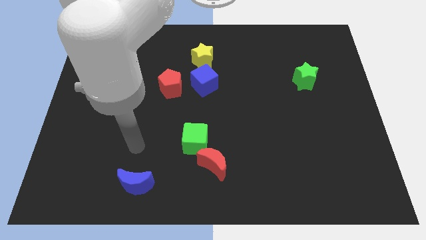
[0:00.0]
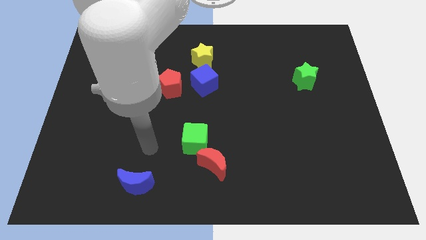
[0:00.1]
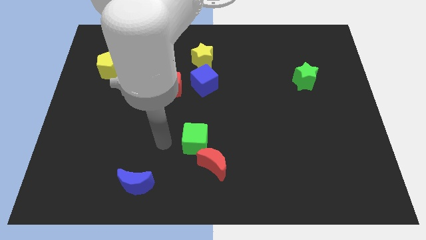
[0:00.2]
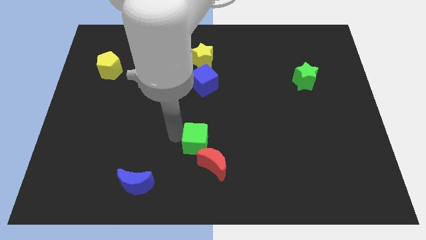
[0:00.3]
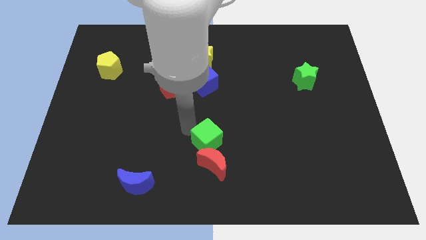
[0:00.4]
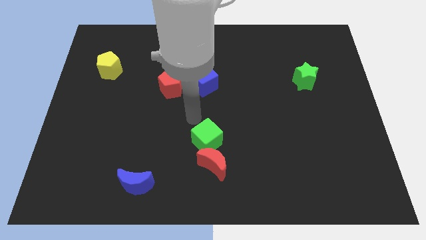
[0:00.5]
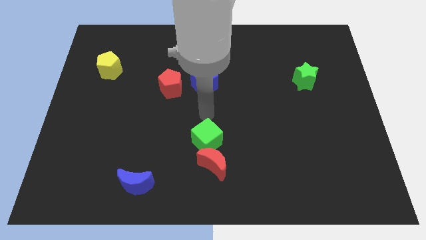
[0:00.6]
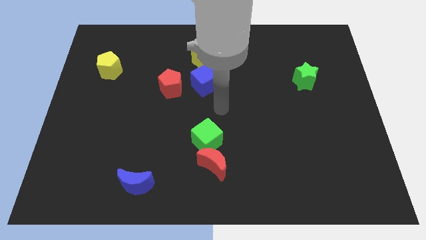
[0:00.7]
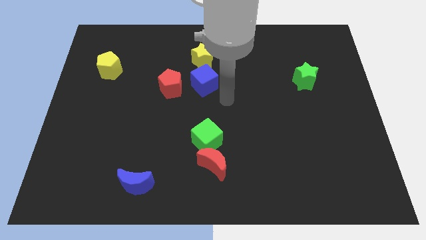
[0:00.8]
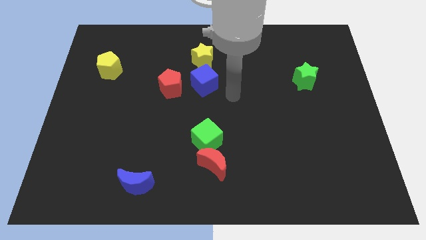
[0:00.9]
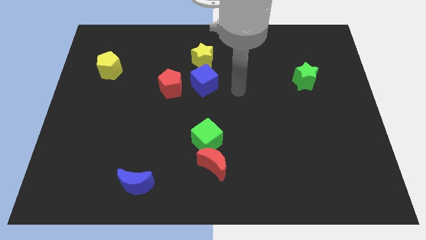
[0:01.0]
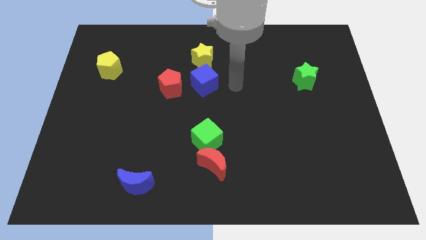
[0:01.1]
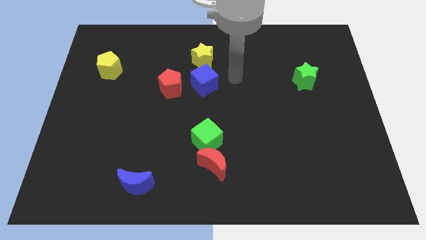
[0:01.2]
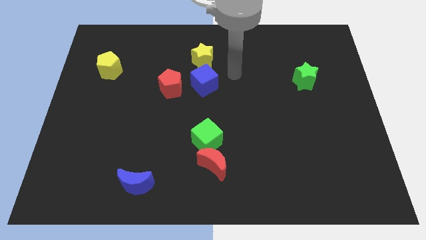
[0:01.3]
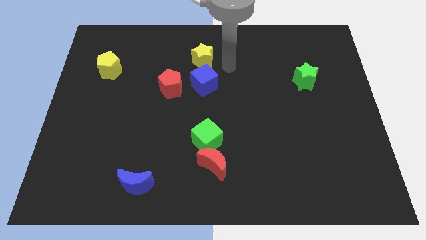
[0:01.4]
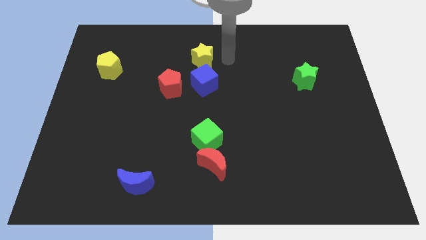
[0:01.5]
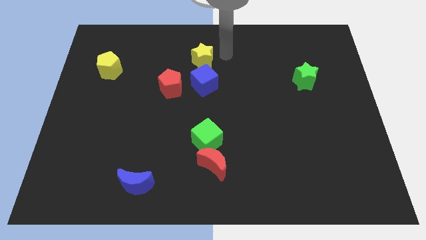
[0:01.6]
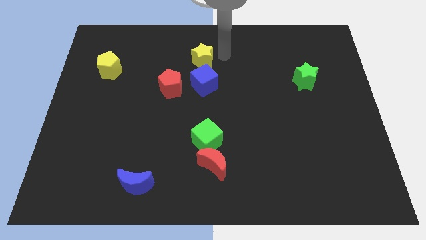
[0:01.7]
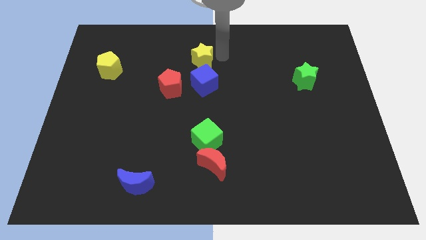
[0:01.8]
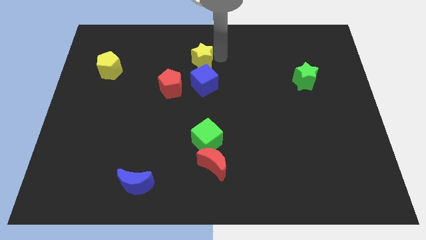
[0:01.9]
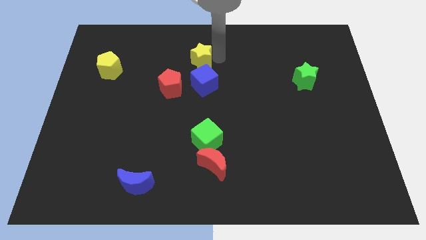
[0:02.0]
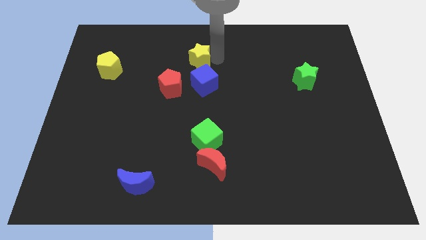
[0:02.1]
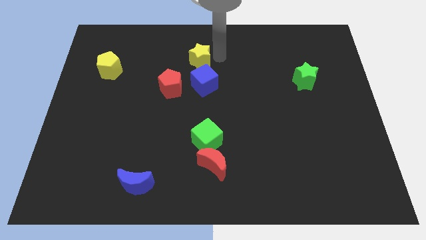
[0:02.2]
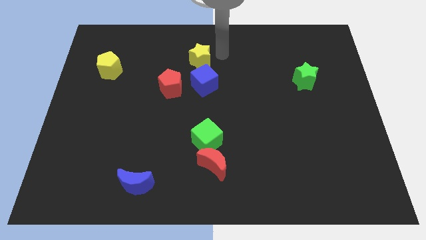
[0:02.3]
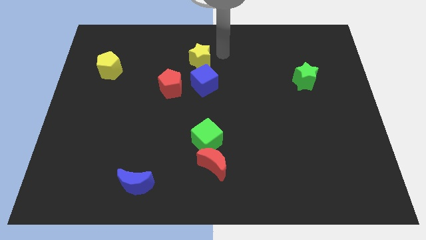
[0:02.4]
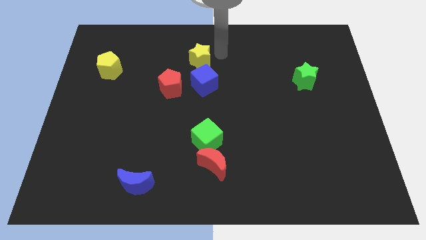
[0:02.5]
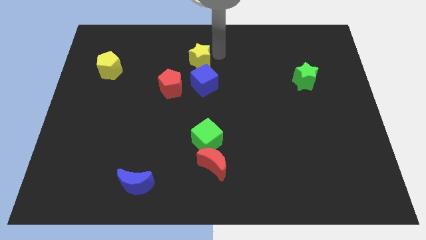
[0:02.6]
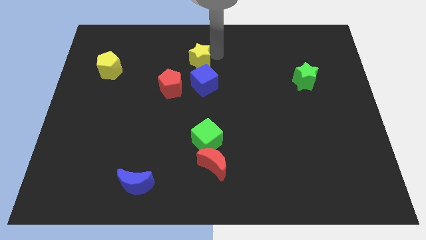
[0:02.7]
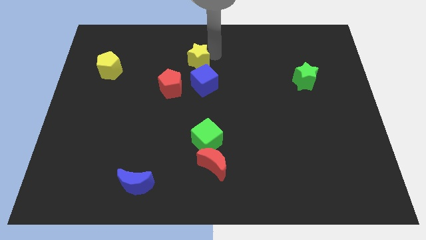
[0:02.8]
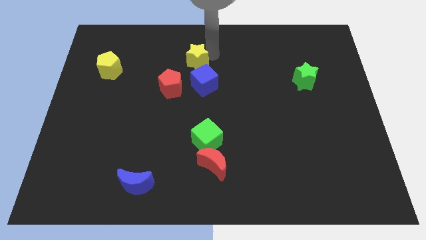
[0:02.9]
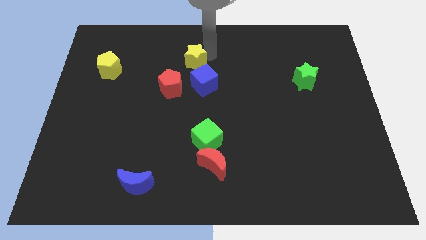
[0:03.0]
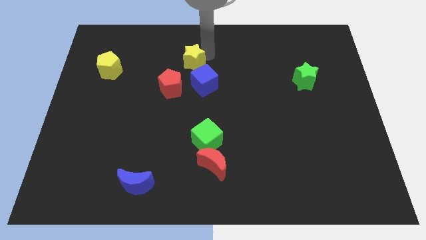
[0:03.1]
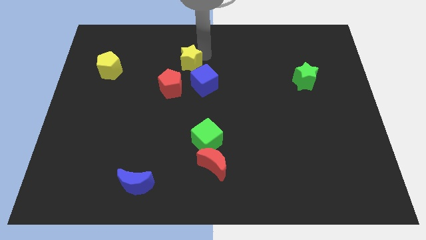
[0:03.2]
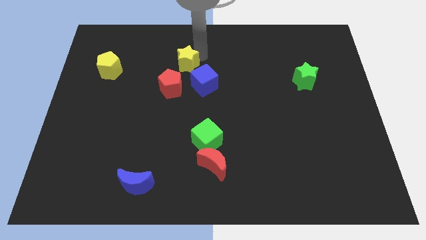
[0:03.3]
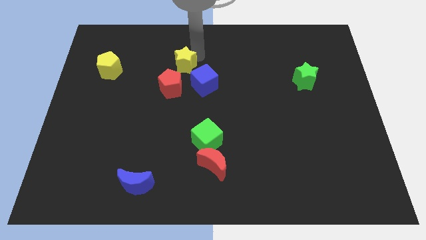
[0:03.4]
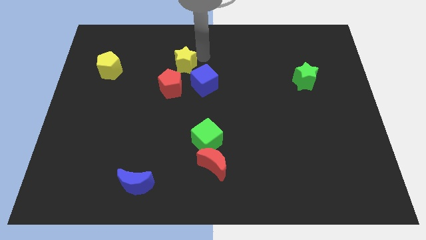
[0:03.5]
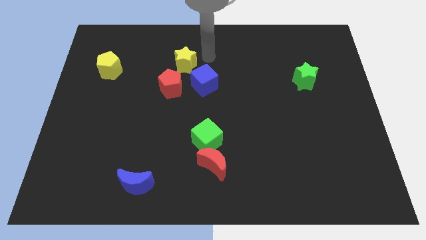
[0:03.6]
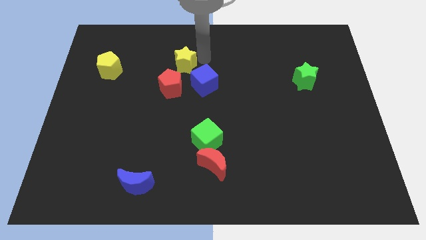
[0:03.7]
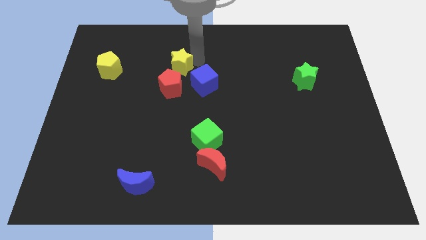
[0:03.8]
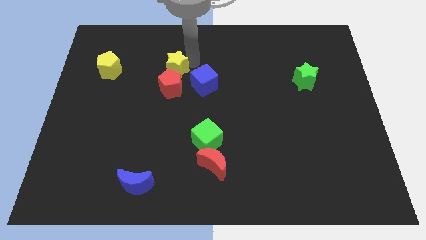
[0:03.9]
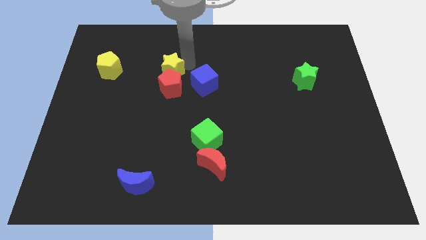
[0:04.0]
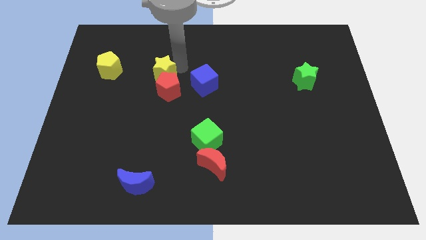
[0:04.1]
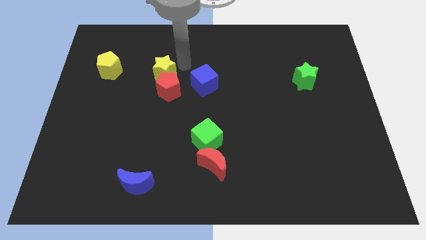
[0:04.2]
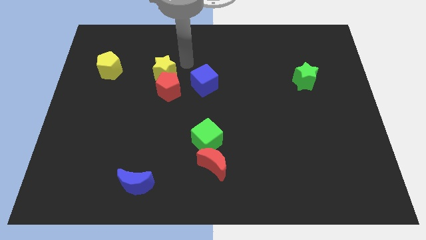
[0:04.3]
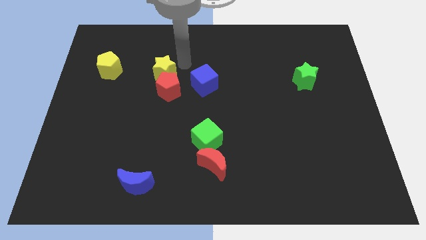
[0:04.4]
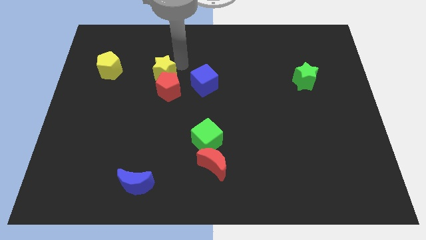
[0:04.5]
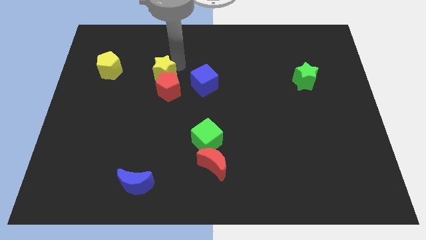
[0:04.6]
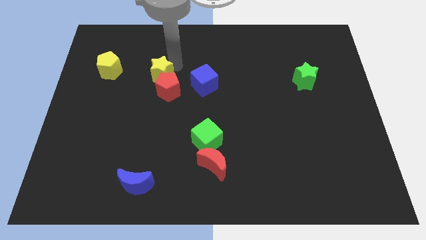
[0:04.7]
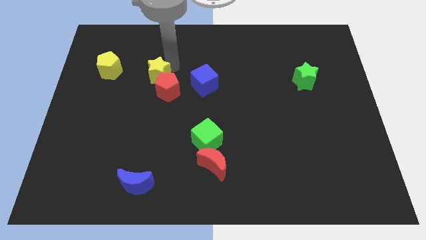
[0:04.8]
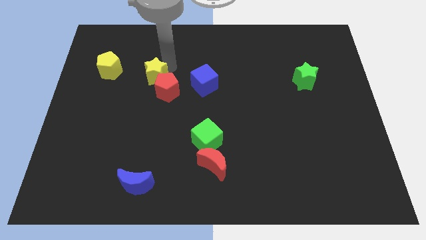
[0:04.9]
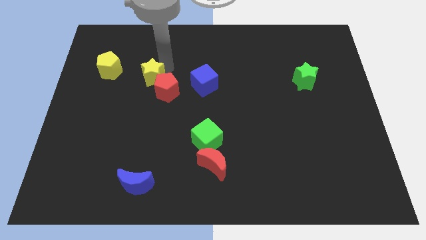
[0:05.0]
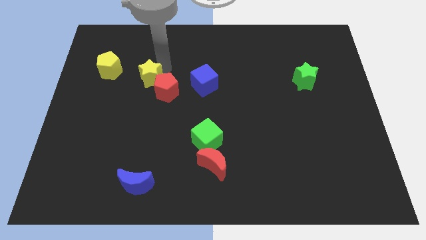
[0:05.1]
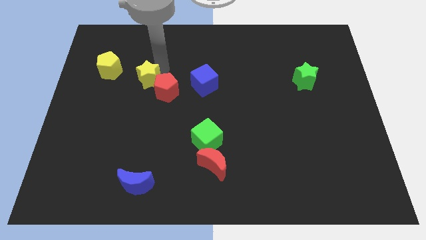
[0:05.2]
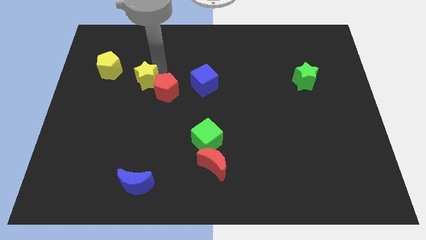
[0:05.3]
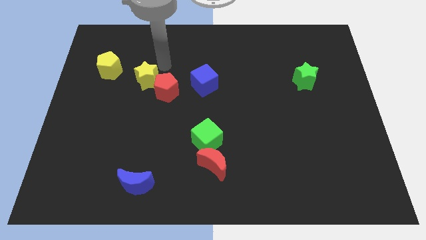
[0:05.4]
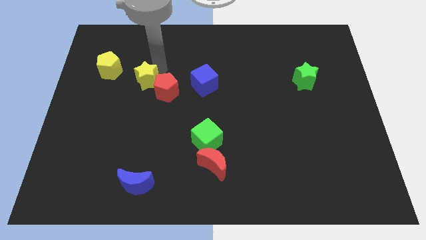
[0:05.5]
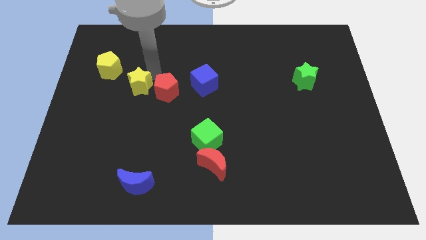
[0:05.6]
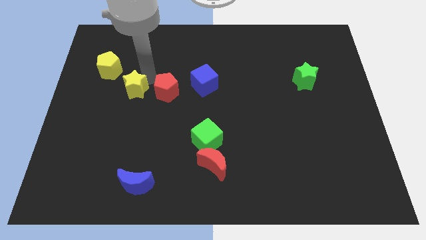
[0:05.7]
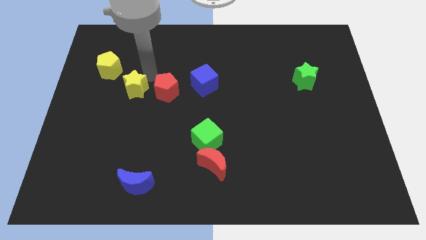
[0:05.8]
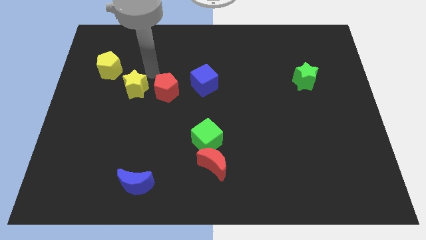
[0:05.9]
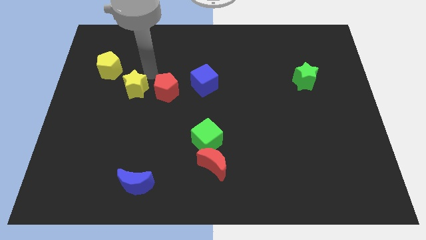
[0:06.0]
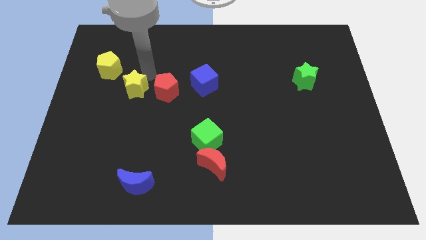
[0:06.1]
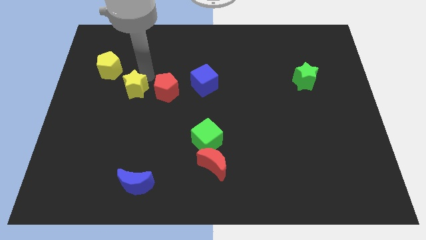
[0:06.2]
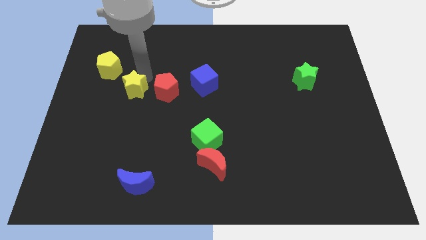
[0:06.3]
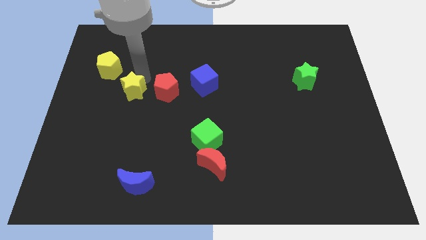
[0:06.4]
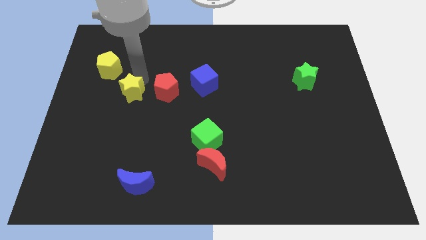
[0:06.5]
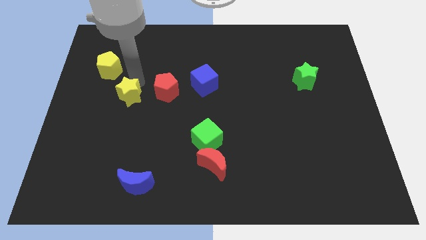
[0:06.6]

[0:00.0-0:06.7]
move the yellow star down and to the left

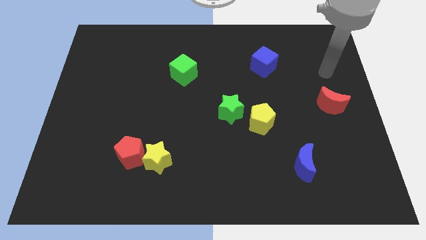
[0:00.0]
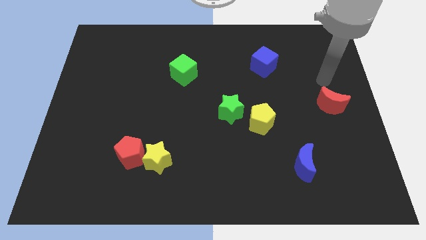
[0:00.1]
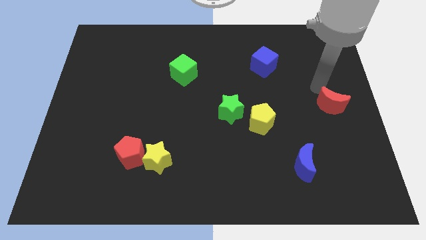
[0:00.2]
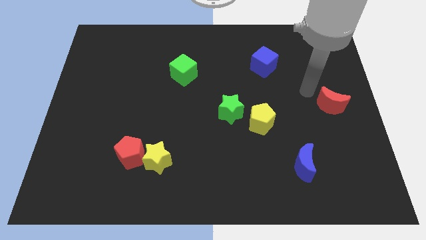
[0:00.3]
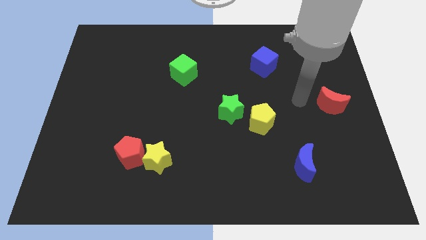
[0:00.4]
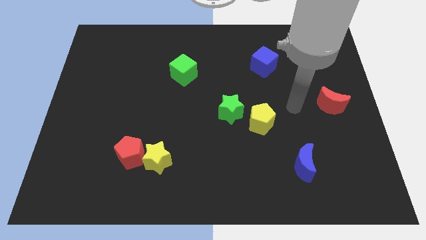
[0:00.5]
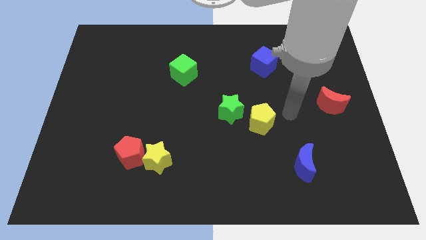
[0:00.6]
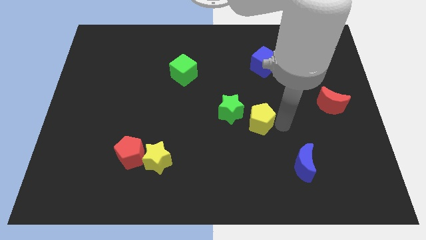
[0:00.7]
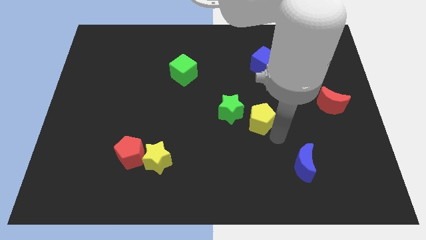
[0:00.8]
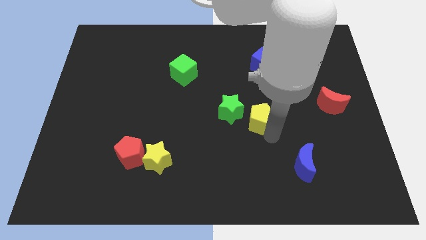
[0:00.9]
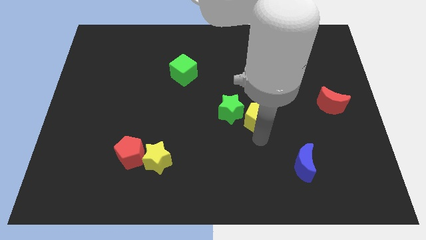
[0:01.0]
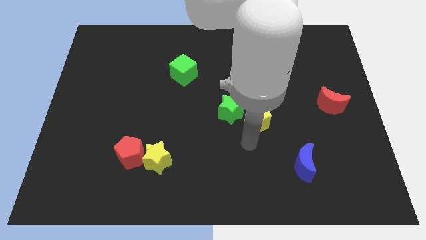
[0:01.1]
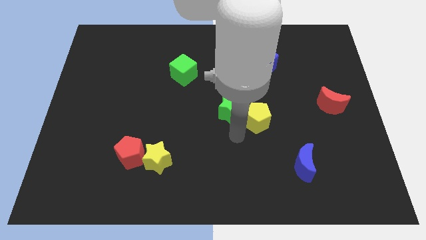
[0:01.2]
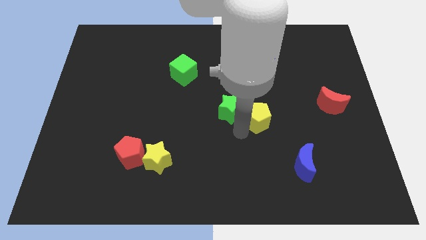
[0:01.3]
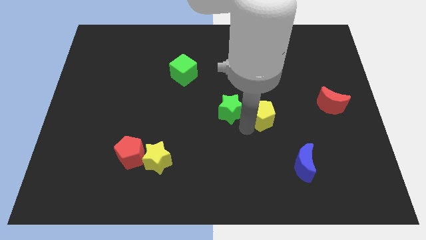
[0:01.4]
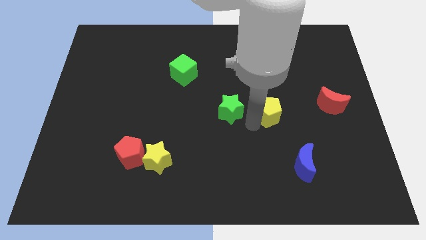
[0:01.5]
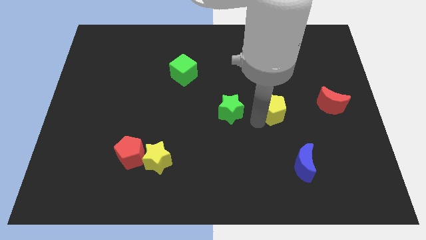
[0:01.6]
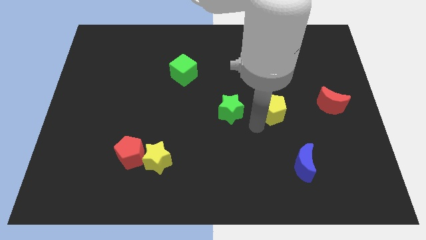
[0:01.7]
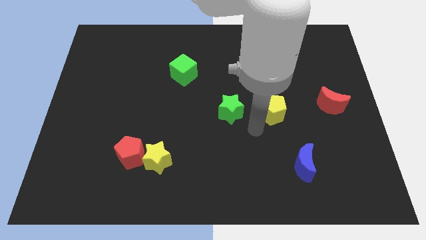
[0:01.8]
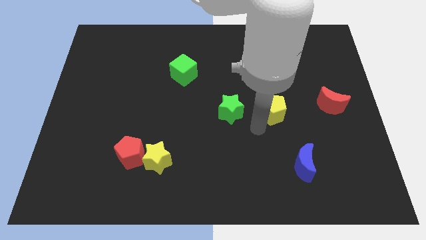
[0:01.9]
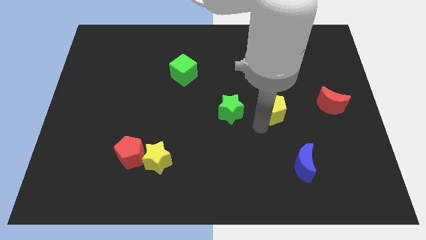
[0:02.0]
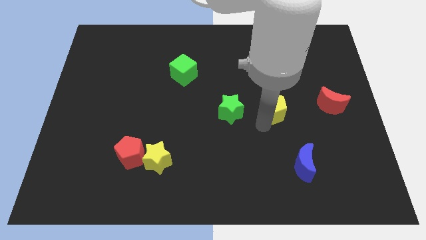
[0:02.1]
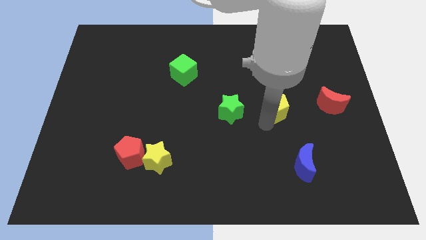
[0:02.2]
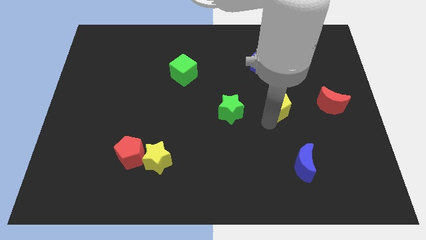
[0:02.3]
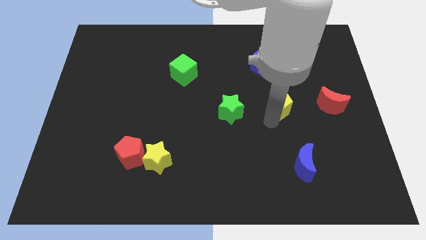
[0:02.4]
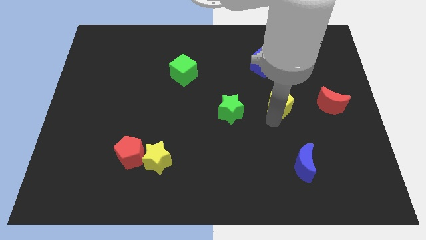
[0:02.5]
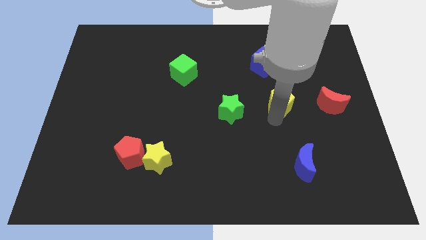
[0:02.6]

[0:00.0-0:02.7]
push the yellow pentagon diagonally upwards and to the right somewhat
